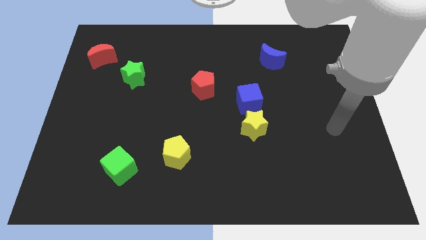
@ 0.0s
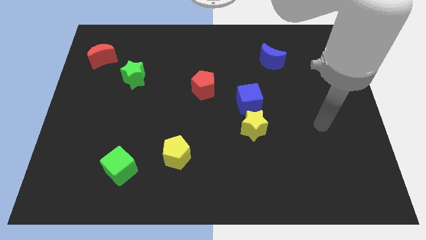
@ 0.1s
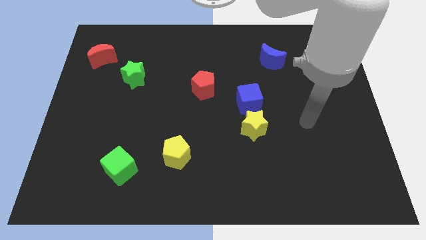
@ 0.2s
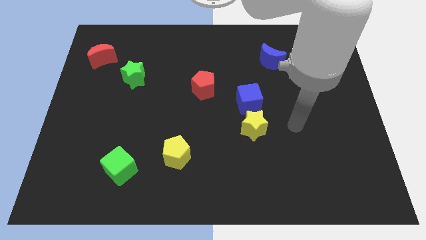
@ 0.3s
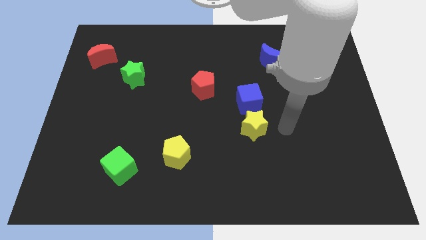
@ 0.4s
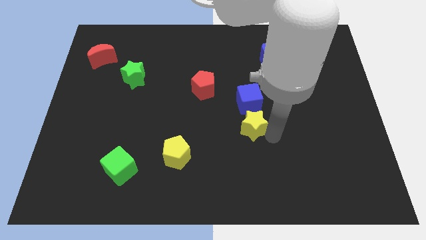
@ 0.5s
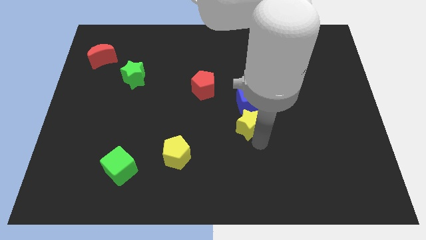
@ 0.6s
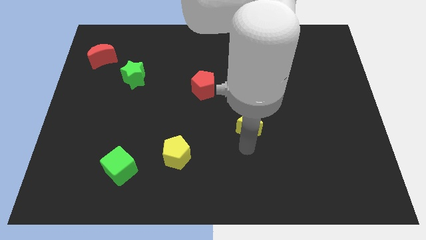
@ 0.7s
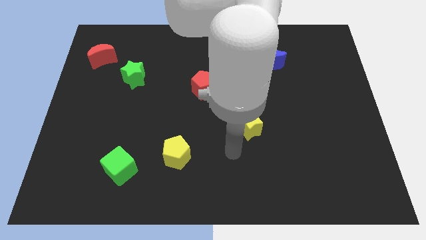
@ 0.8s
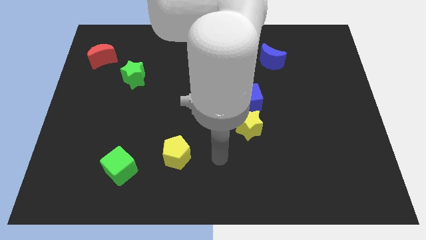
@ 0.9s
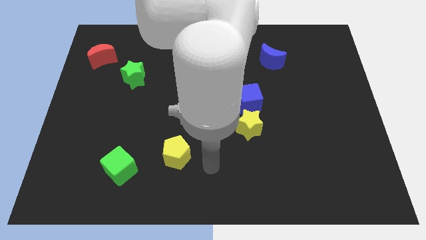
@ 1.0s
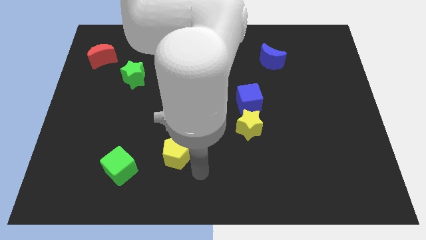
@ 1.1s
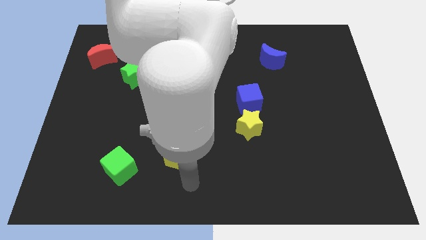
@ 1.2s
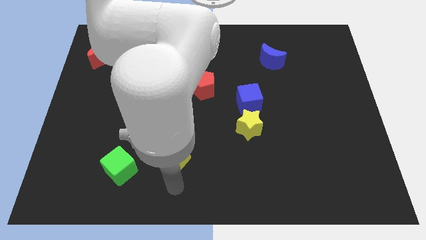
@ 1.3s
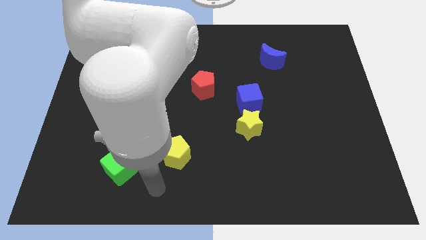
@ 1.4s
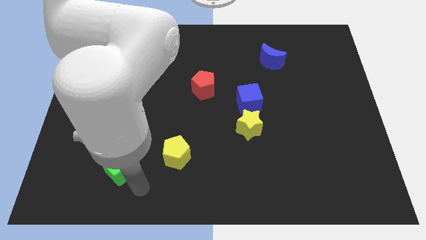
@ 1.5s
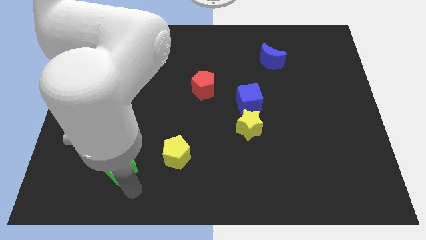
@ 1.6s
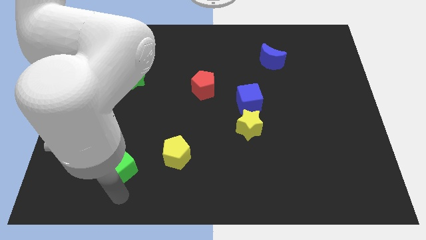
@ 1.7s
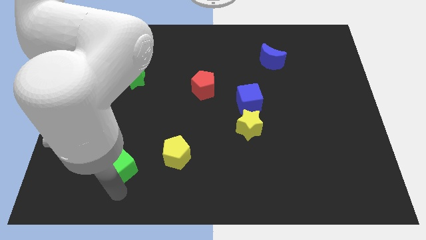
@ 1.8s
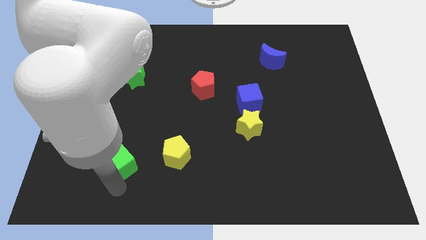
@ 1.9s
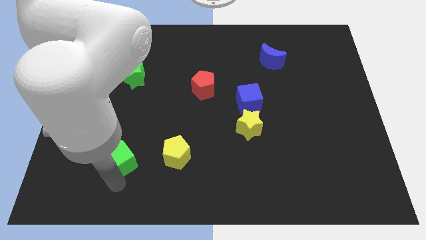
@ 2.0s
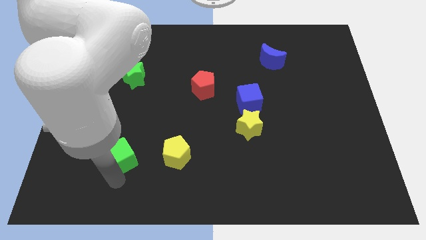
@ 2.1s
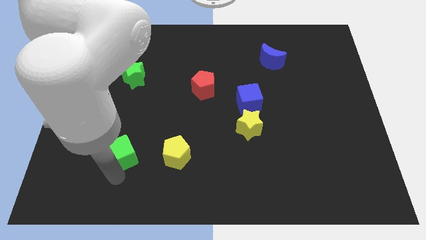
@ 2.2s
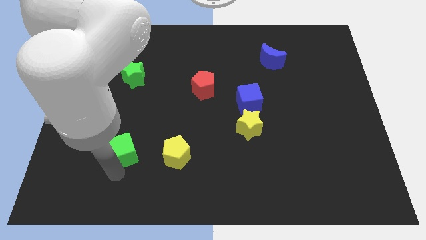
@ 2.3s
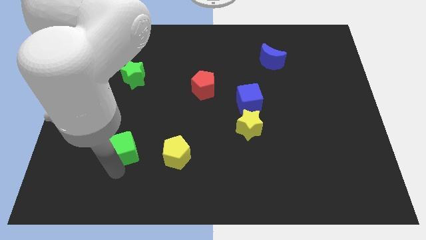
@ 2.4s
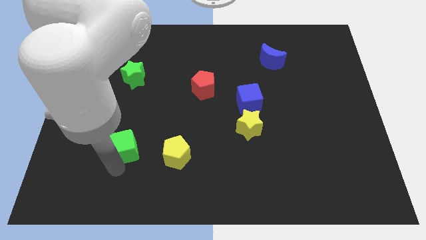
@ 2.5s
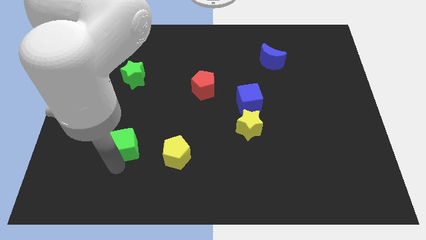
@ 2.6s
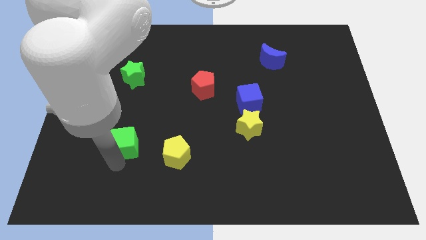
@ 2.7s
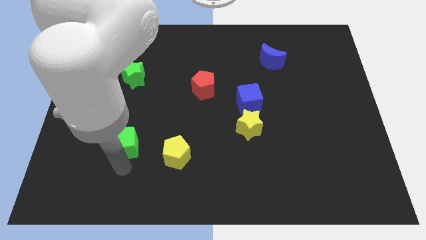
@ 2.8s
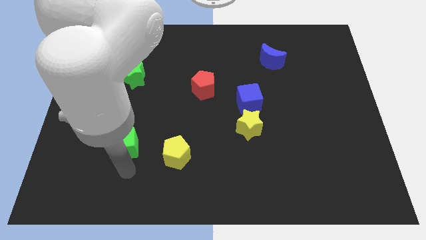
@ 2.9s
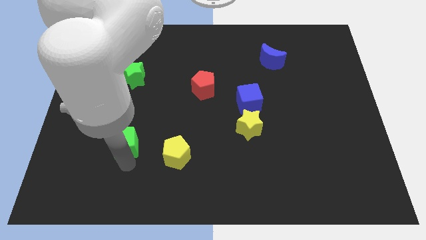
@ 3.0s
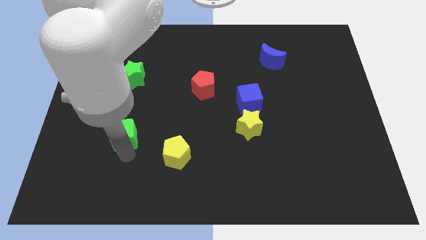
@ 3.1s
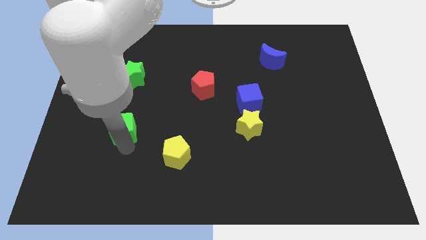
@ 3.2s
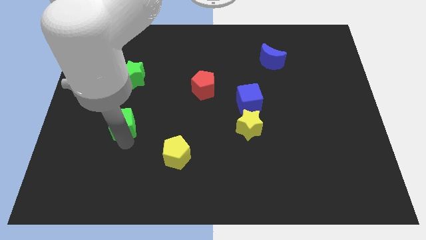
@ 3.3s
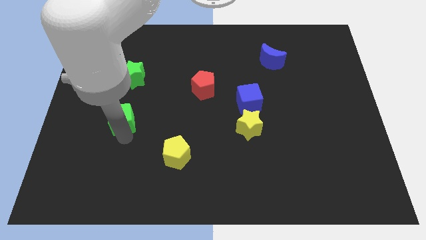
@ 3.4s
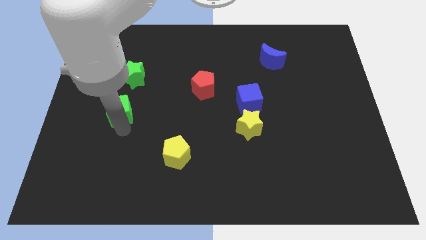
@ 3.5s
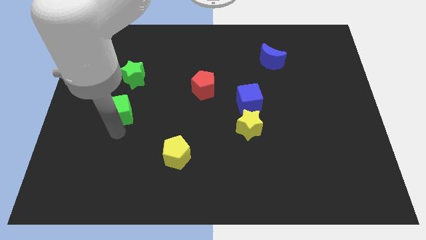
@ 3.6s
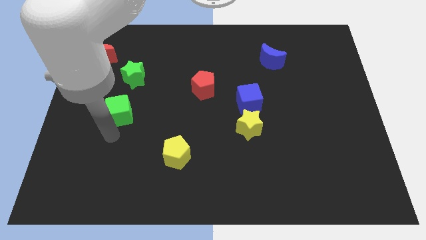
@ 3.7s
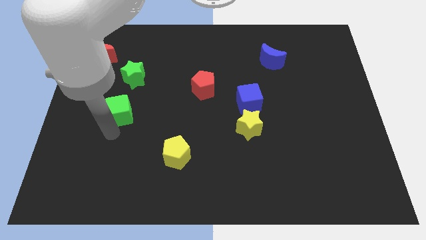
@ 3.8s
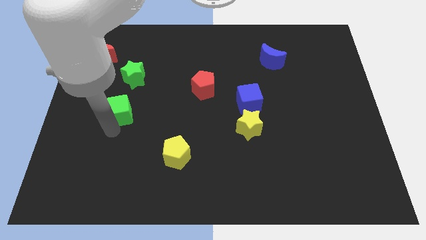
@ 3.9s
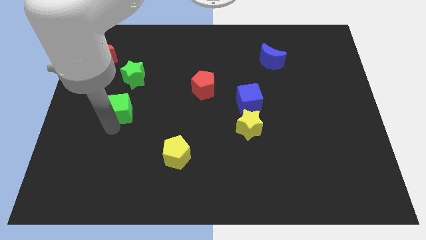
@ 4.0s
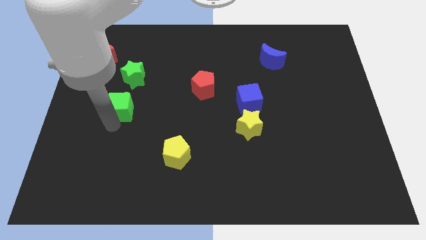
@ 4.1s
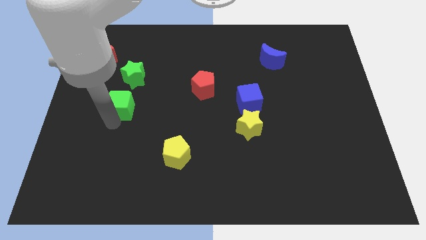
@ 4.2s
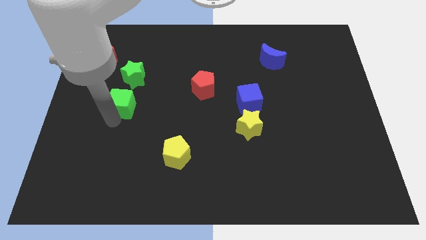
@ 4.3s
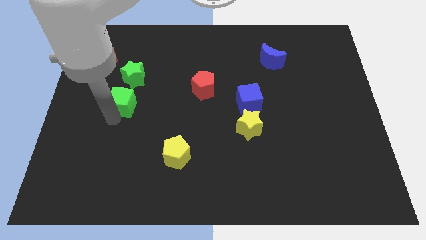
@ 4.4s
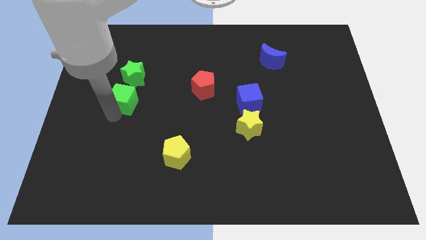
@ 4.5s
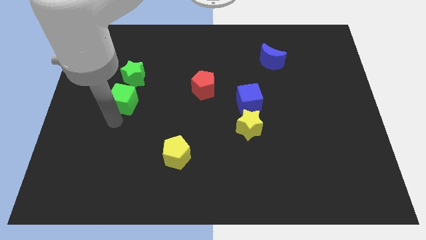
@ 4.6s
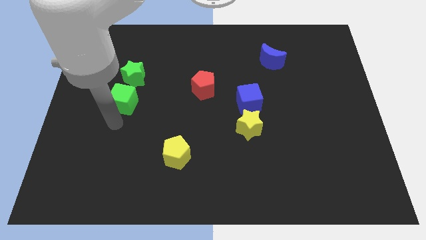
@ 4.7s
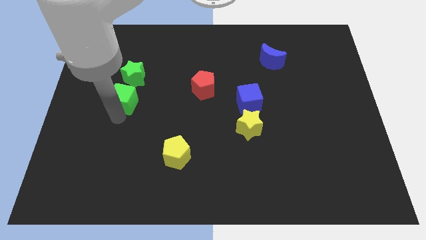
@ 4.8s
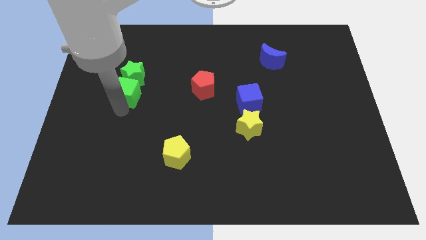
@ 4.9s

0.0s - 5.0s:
push the green cube towards the green star

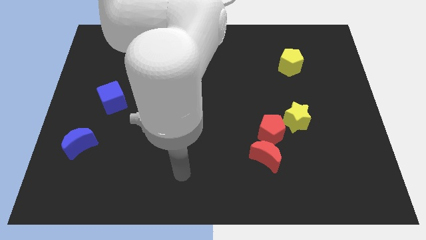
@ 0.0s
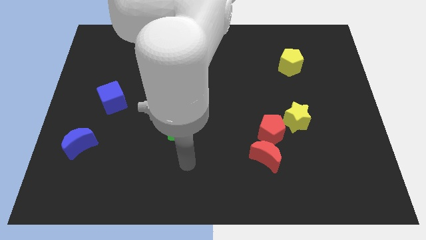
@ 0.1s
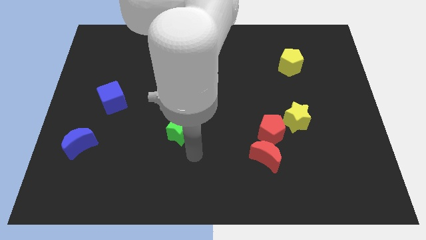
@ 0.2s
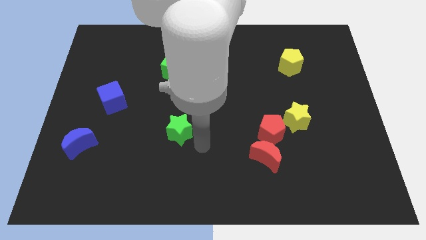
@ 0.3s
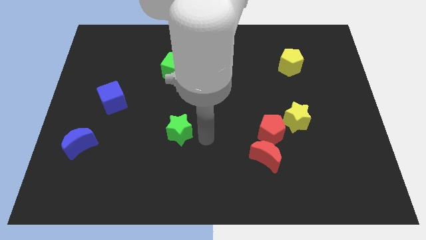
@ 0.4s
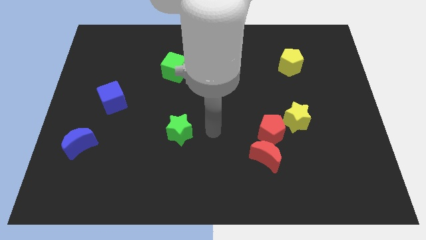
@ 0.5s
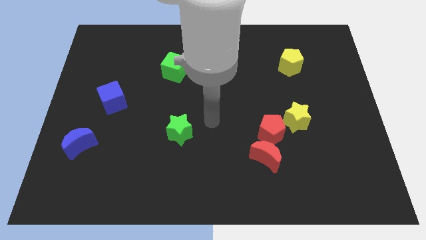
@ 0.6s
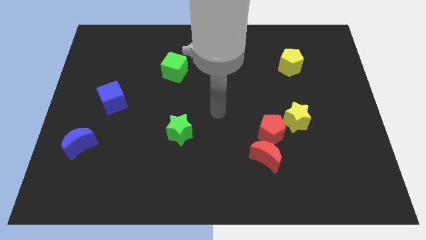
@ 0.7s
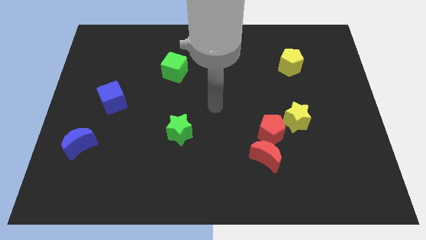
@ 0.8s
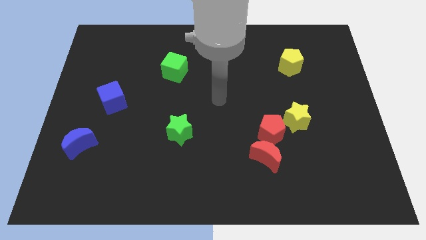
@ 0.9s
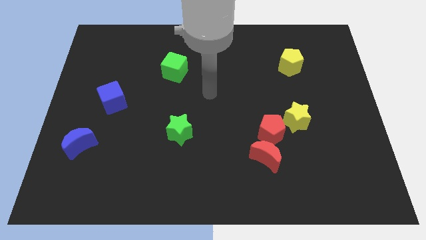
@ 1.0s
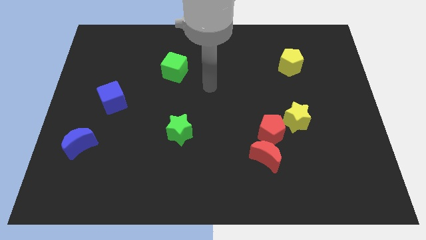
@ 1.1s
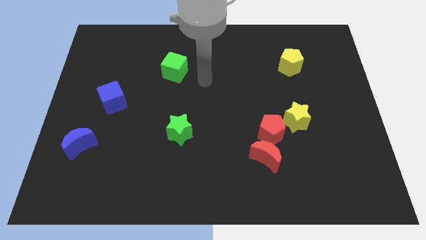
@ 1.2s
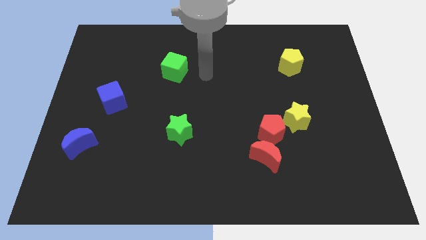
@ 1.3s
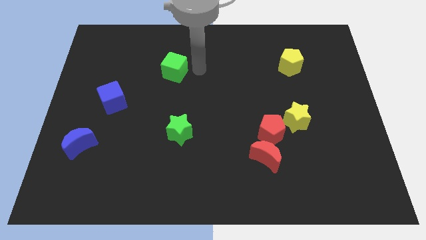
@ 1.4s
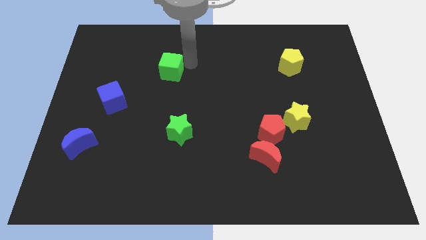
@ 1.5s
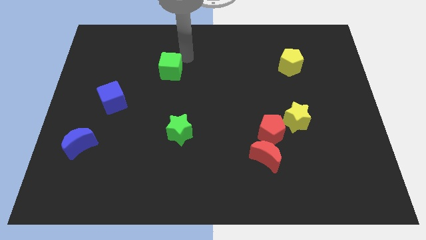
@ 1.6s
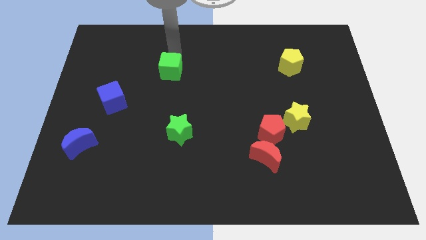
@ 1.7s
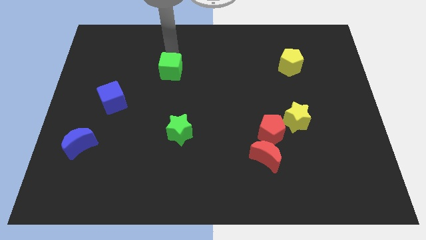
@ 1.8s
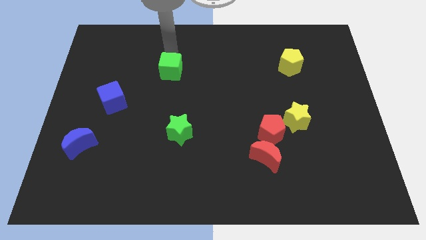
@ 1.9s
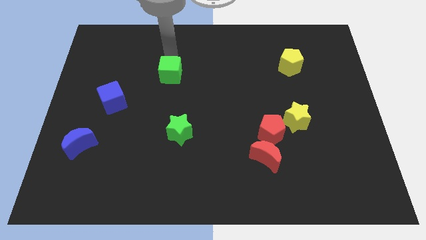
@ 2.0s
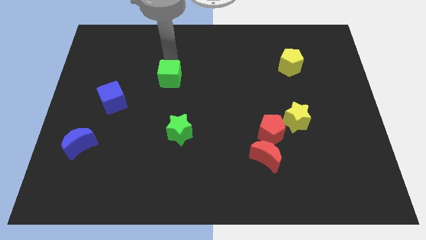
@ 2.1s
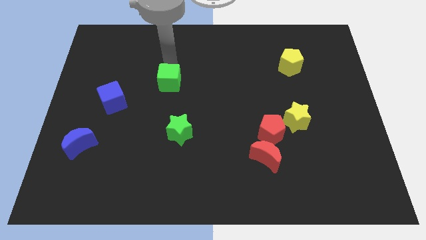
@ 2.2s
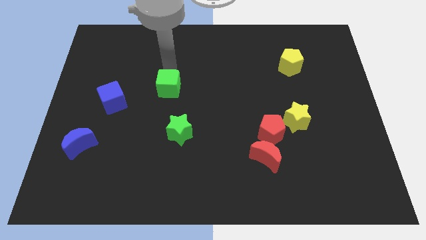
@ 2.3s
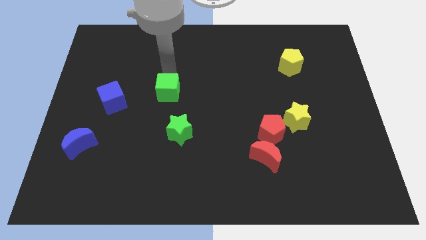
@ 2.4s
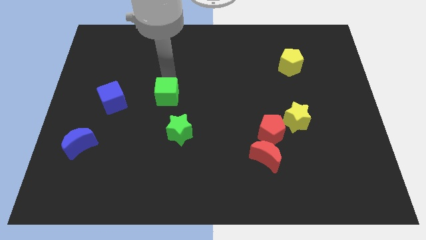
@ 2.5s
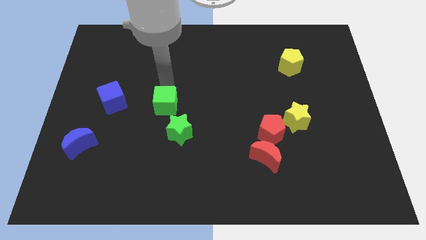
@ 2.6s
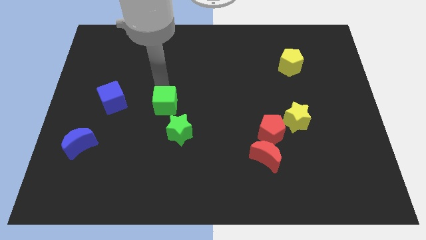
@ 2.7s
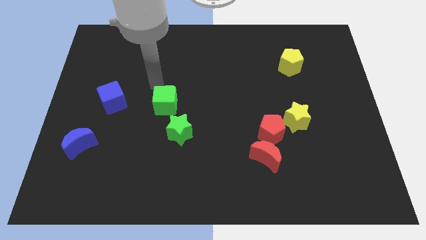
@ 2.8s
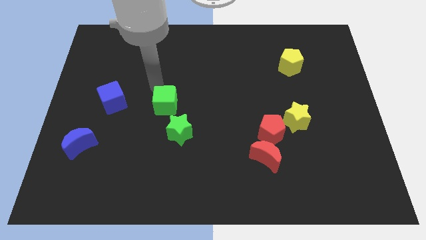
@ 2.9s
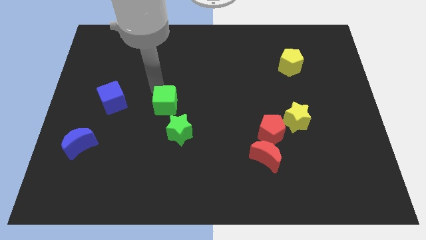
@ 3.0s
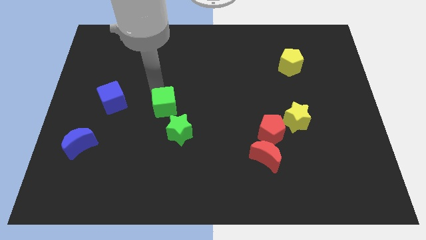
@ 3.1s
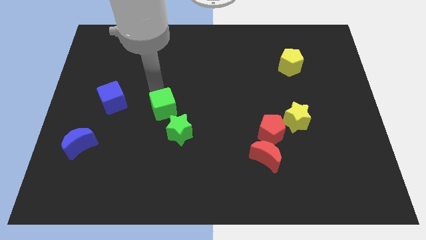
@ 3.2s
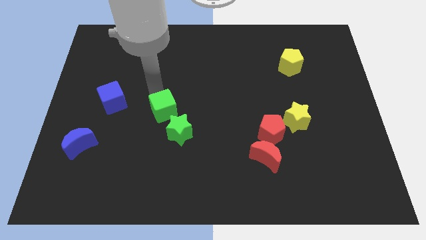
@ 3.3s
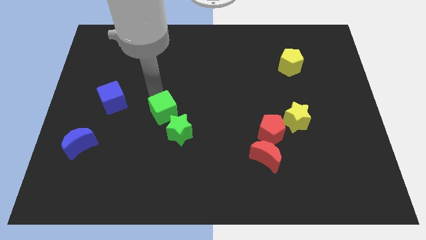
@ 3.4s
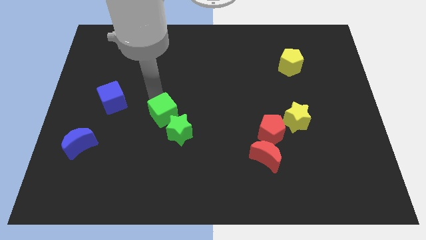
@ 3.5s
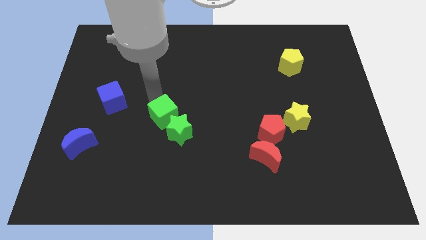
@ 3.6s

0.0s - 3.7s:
push the green cube close to the green star
